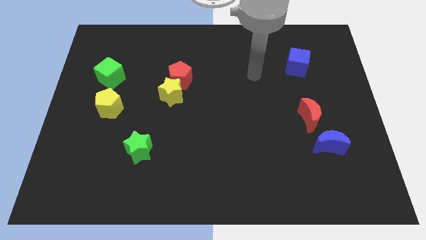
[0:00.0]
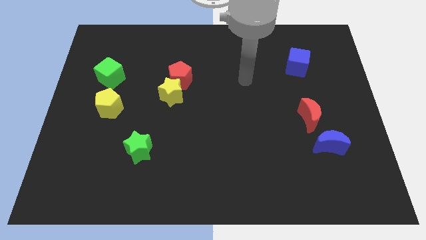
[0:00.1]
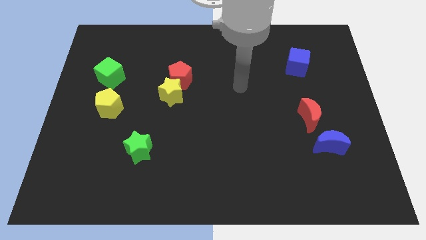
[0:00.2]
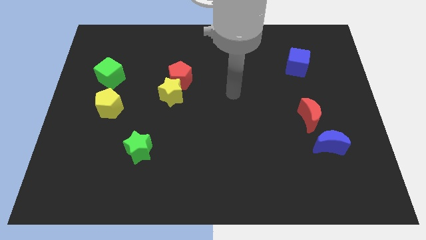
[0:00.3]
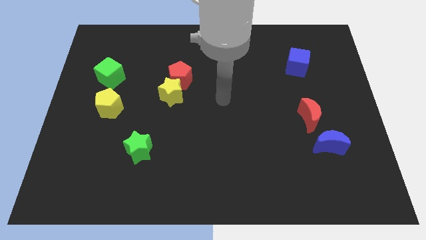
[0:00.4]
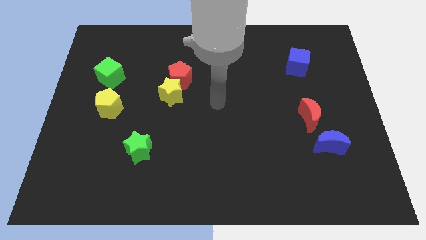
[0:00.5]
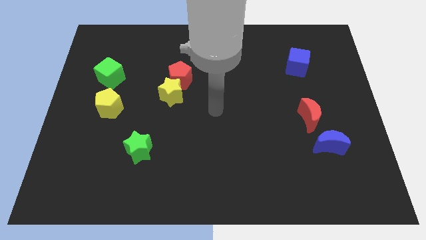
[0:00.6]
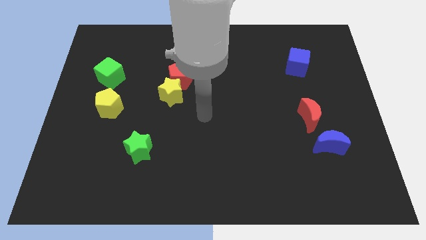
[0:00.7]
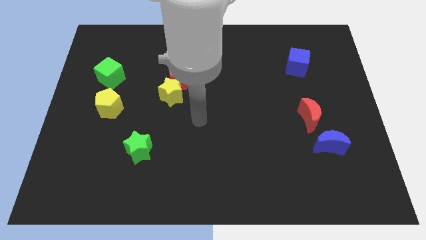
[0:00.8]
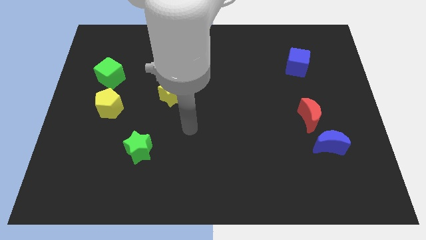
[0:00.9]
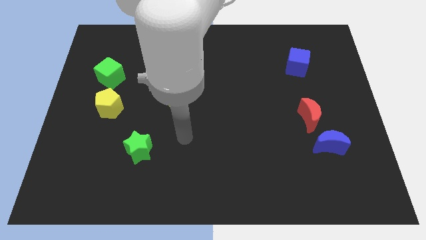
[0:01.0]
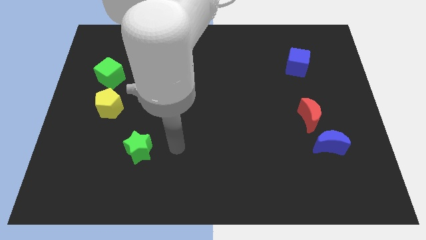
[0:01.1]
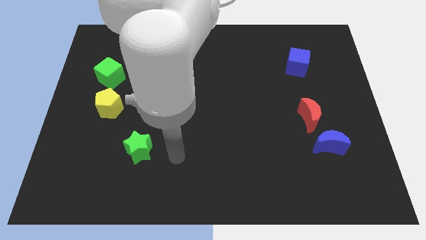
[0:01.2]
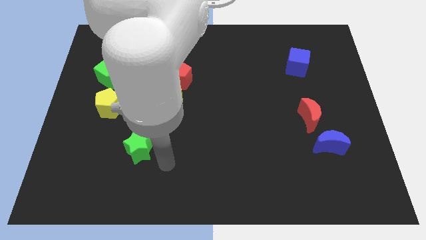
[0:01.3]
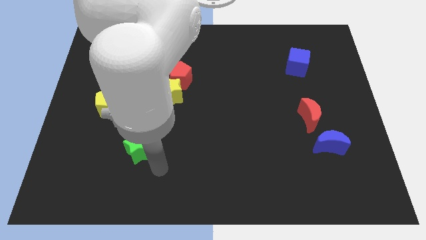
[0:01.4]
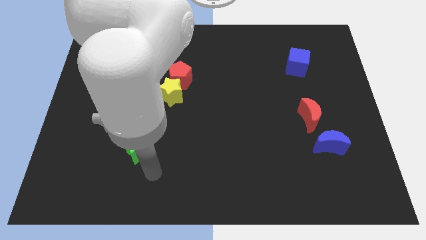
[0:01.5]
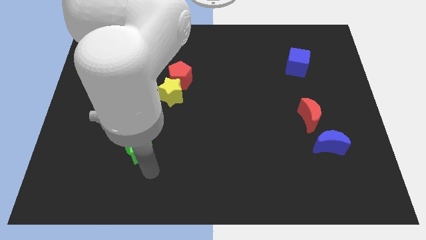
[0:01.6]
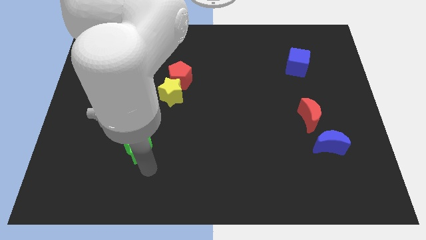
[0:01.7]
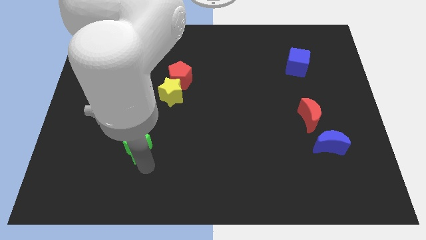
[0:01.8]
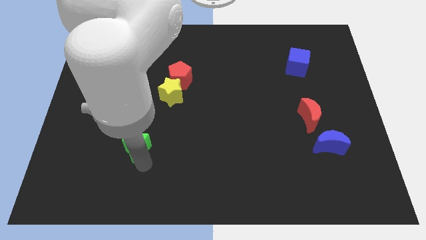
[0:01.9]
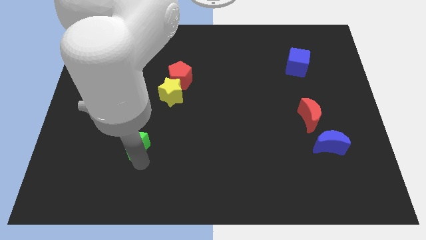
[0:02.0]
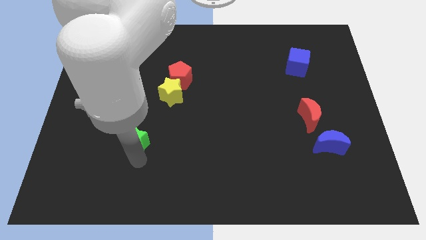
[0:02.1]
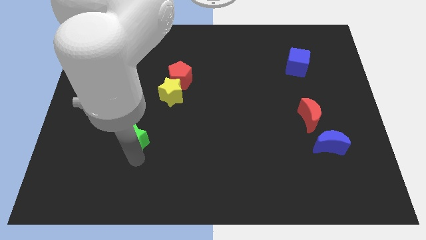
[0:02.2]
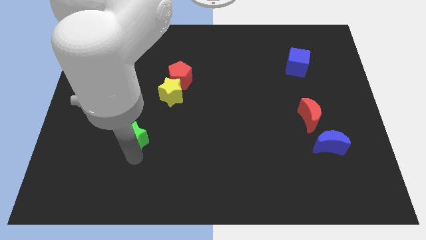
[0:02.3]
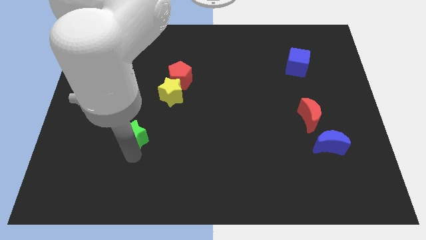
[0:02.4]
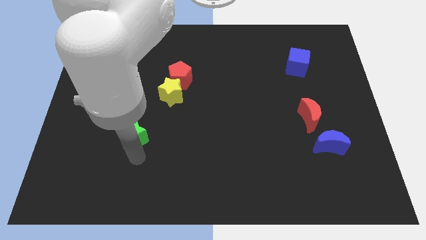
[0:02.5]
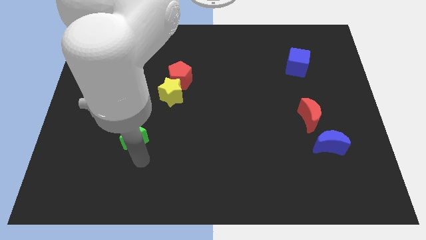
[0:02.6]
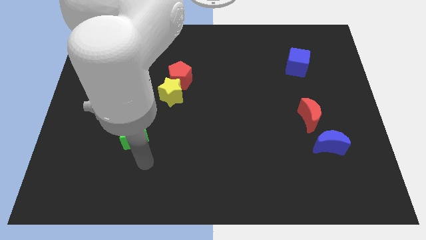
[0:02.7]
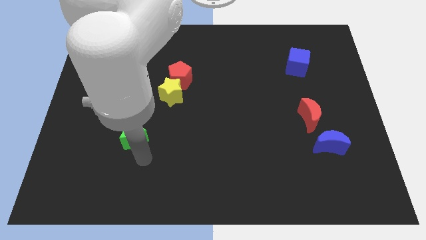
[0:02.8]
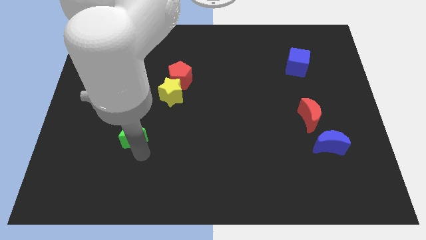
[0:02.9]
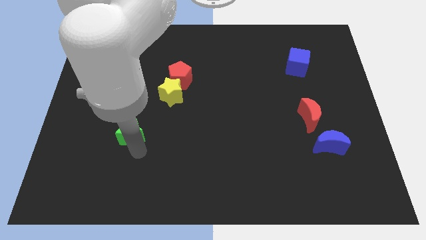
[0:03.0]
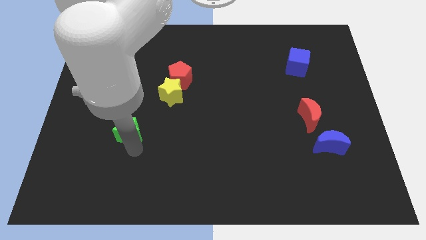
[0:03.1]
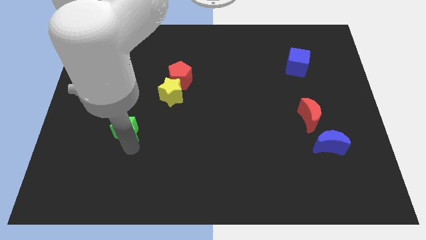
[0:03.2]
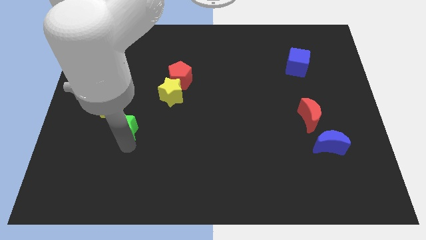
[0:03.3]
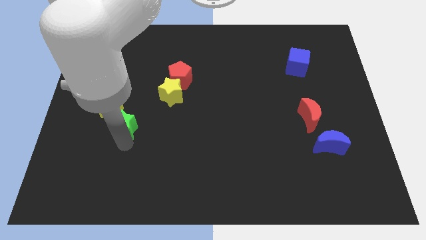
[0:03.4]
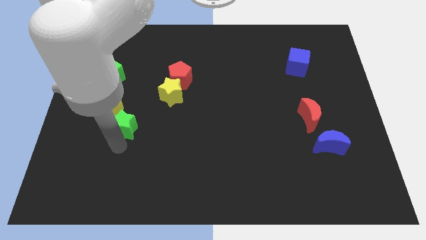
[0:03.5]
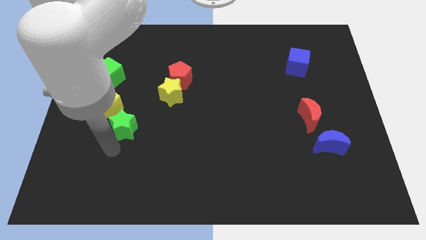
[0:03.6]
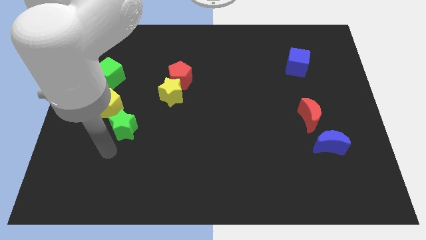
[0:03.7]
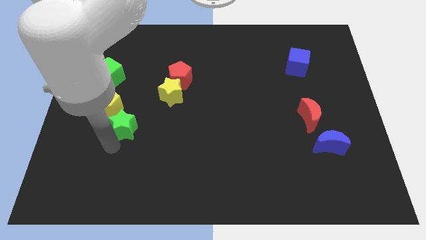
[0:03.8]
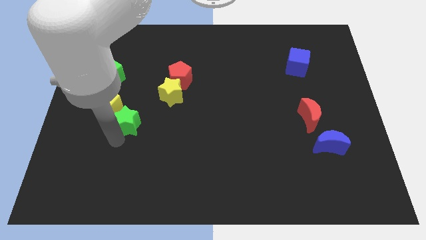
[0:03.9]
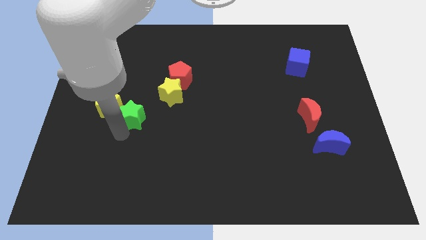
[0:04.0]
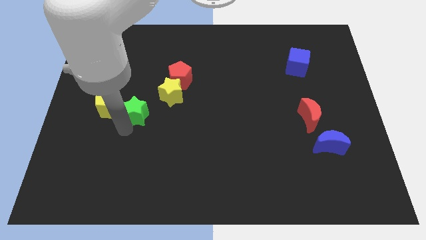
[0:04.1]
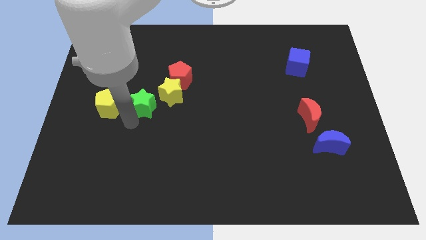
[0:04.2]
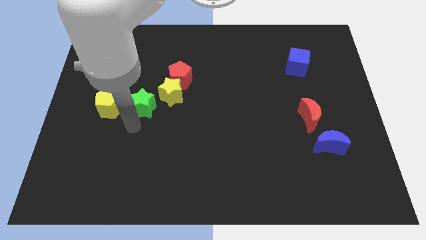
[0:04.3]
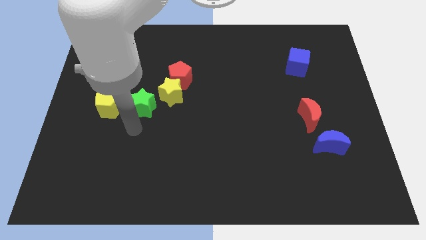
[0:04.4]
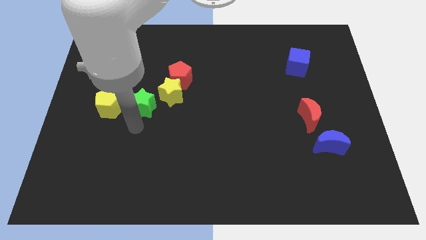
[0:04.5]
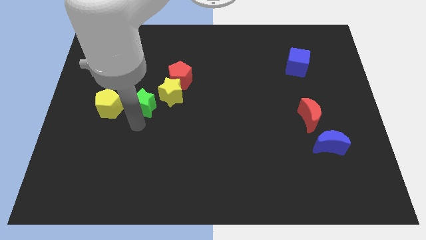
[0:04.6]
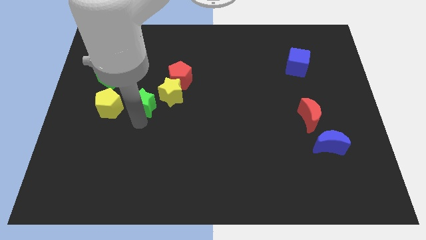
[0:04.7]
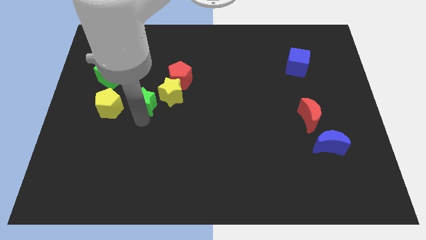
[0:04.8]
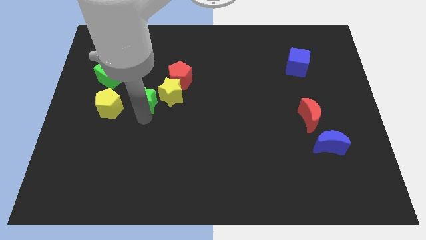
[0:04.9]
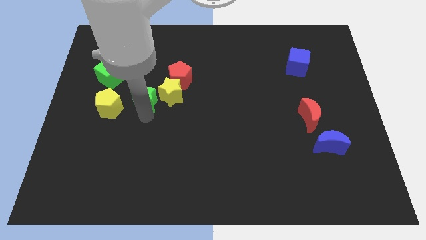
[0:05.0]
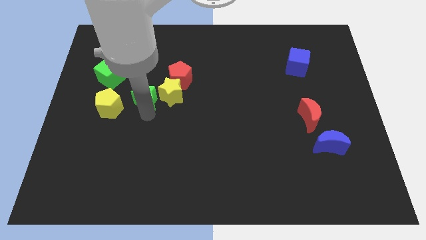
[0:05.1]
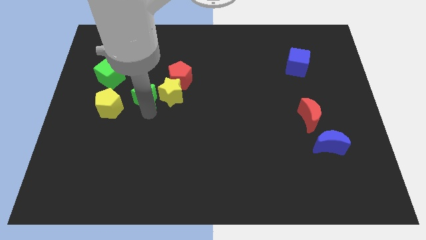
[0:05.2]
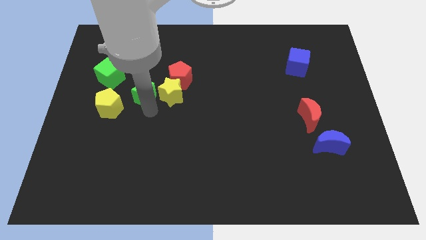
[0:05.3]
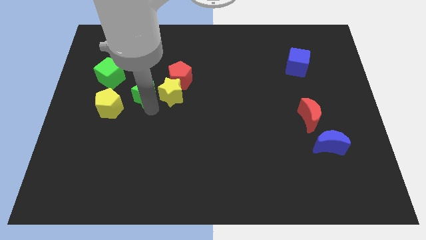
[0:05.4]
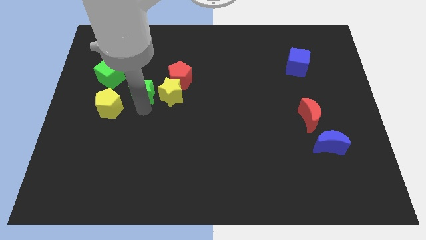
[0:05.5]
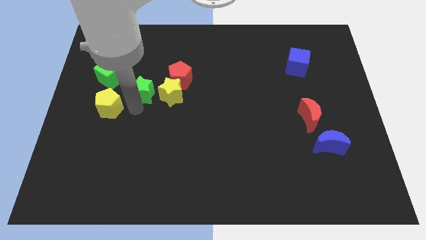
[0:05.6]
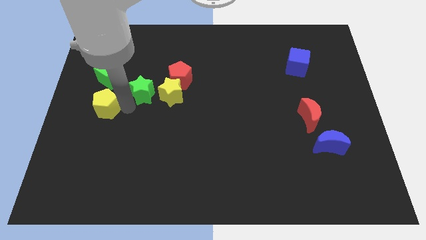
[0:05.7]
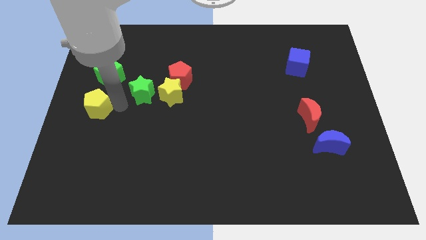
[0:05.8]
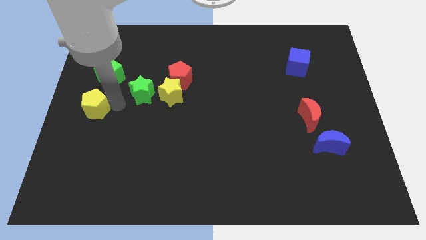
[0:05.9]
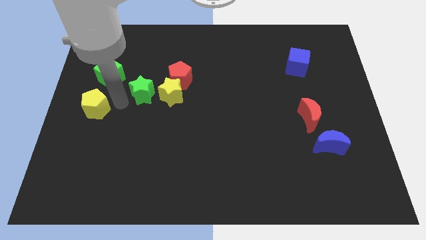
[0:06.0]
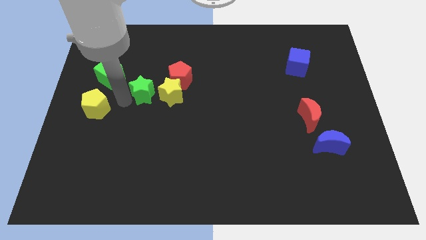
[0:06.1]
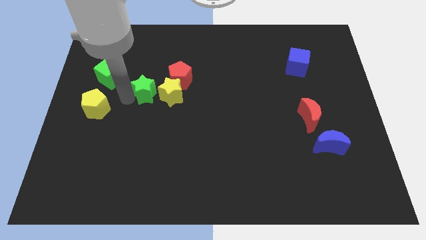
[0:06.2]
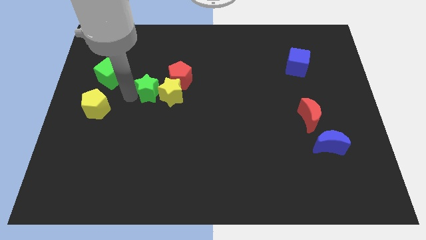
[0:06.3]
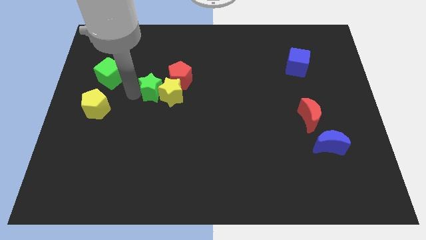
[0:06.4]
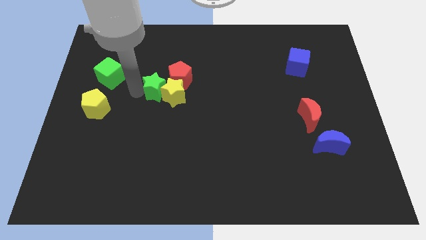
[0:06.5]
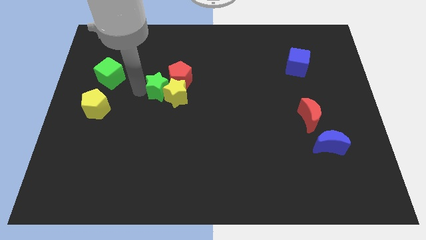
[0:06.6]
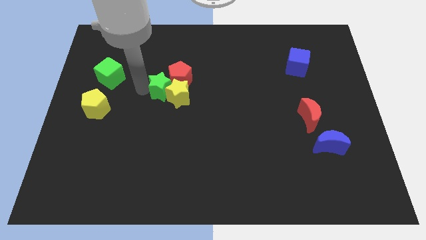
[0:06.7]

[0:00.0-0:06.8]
move the green star close to the red pentagon

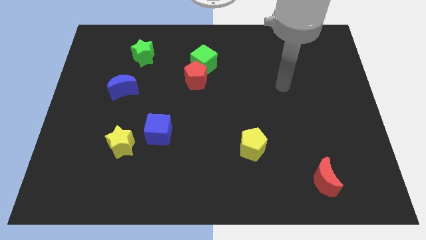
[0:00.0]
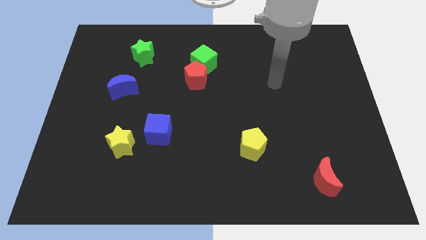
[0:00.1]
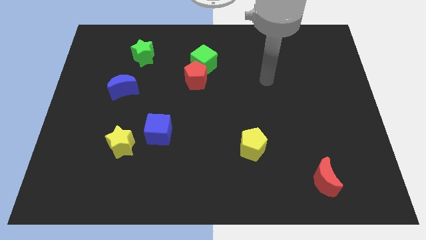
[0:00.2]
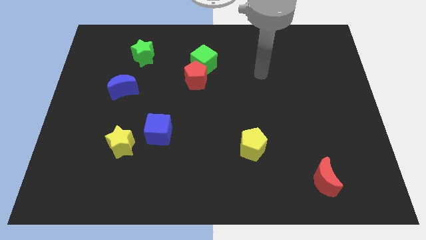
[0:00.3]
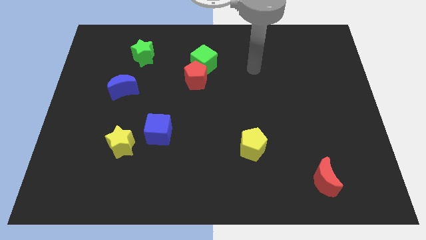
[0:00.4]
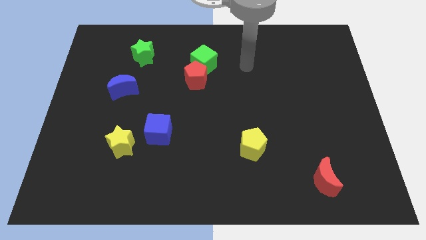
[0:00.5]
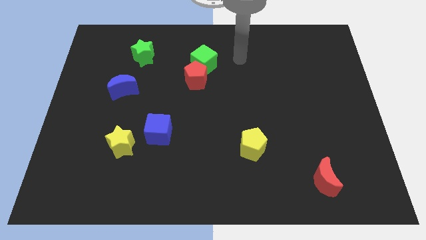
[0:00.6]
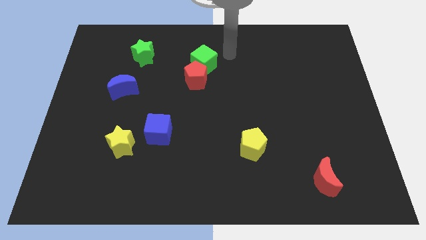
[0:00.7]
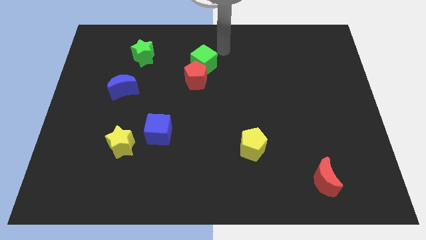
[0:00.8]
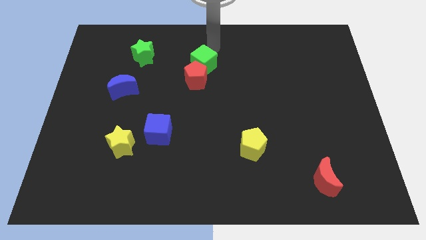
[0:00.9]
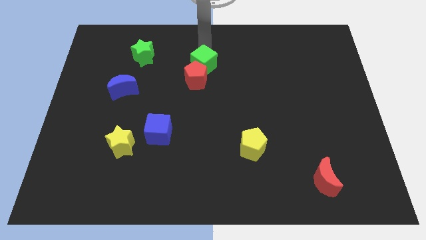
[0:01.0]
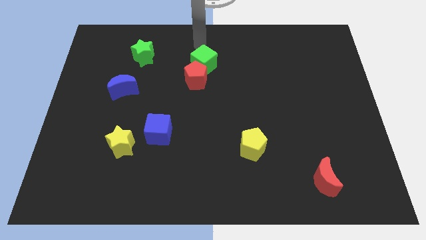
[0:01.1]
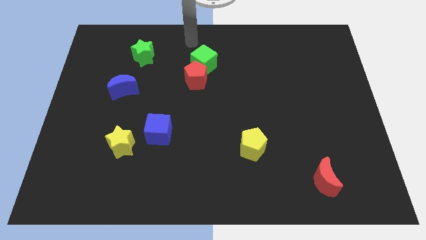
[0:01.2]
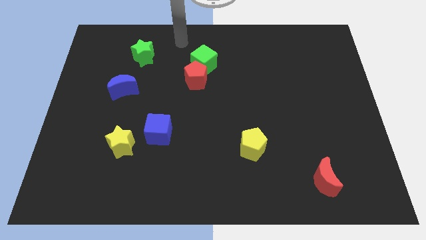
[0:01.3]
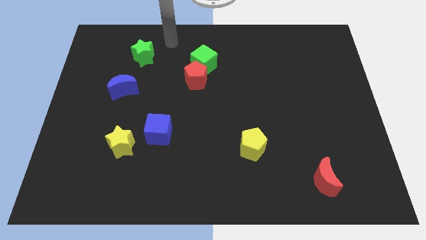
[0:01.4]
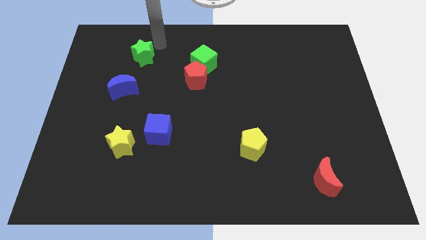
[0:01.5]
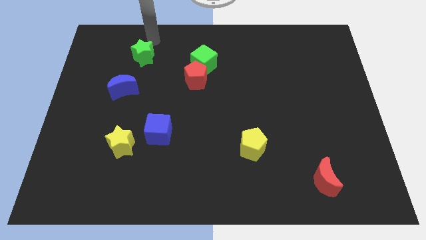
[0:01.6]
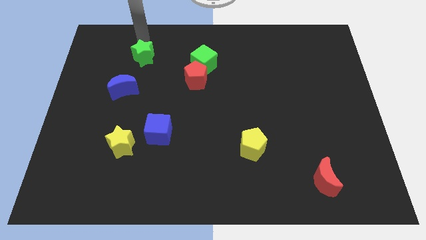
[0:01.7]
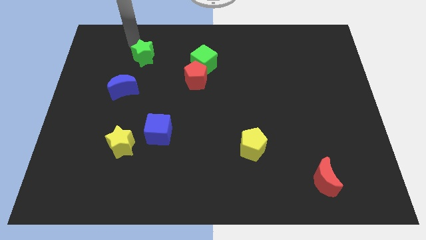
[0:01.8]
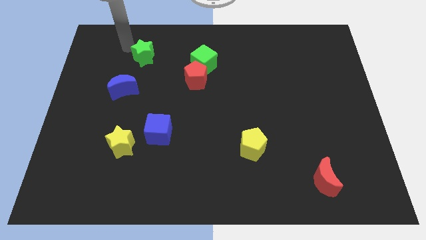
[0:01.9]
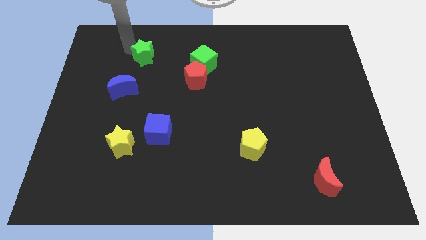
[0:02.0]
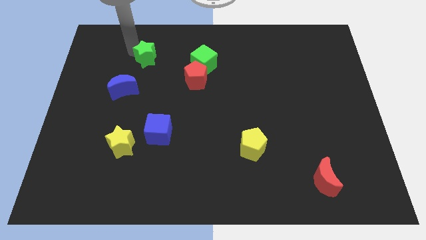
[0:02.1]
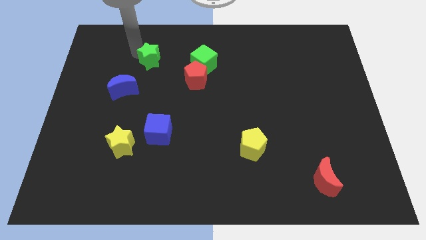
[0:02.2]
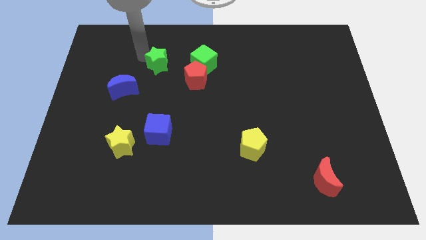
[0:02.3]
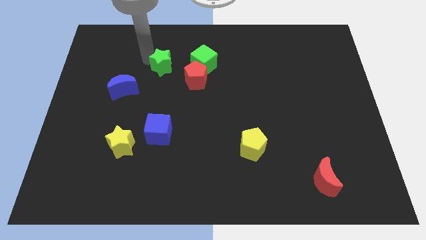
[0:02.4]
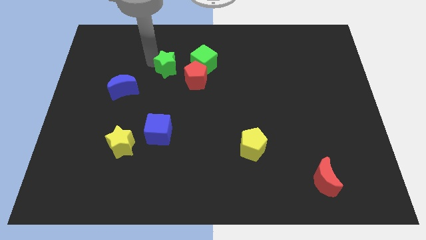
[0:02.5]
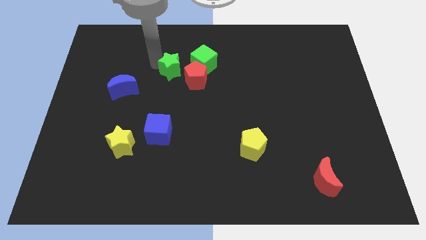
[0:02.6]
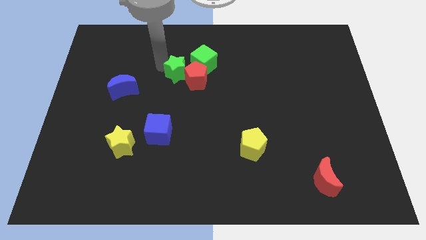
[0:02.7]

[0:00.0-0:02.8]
push the green star close to the red pentagon
